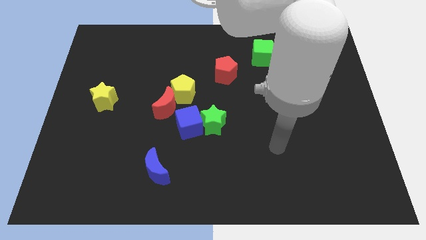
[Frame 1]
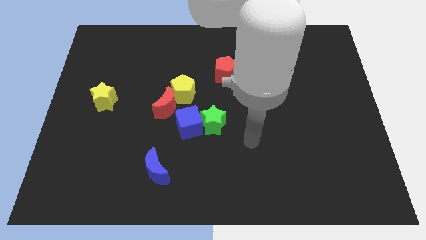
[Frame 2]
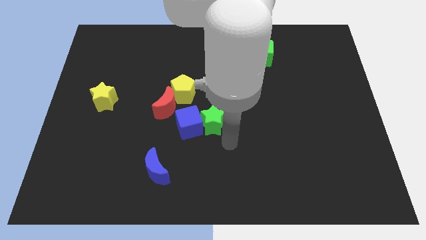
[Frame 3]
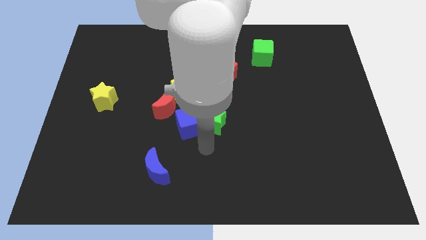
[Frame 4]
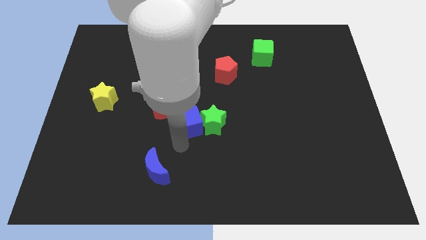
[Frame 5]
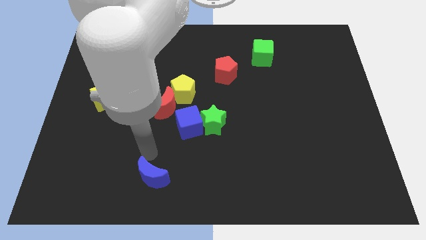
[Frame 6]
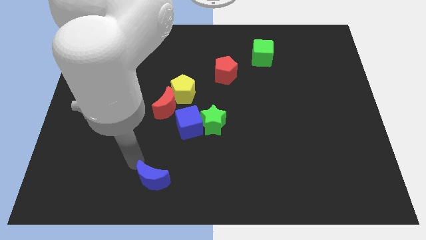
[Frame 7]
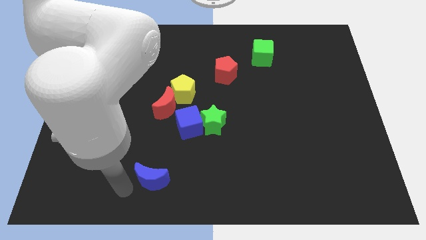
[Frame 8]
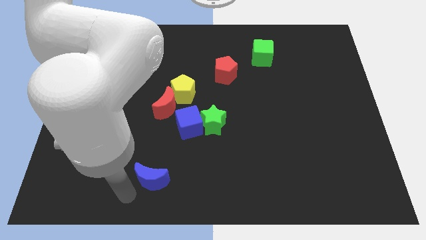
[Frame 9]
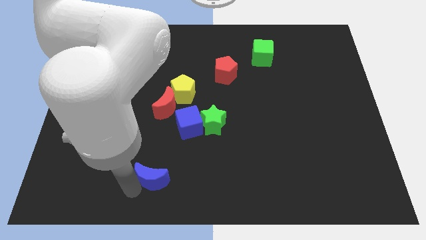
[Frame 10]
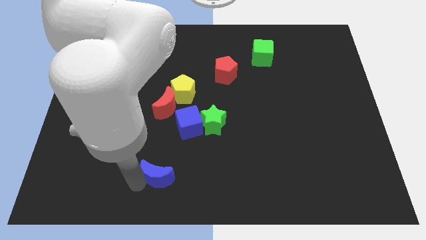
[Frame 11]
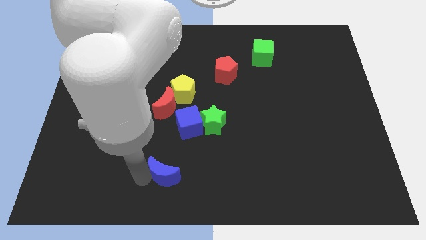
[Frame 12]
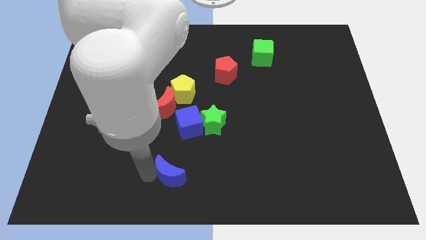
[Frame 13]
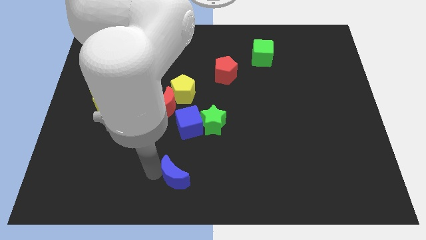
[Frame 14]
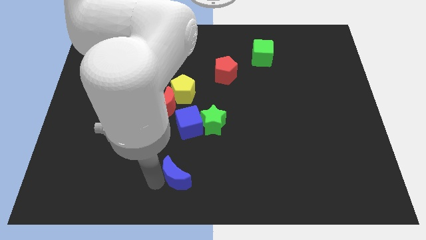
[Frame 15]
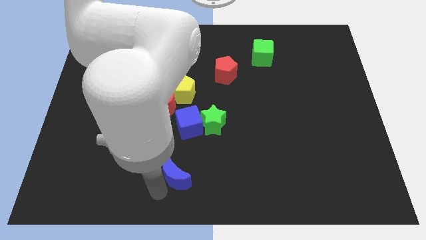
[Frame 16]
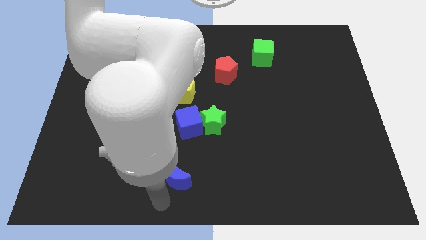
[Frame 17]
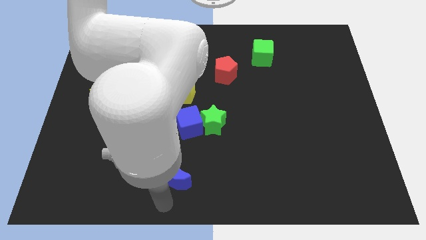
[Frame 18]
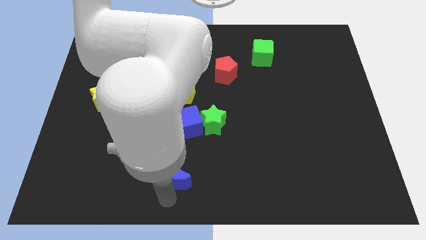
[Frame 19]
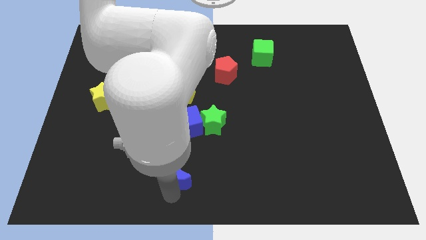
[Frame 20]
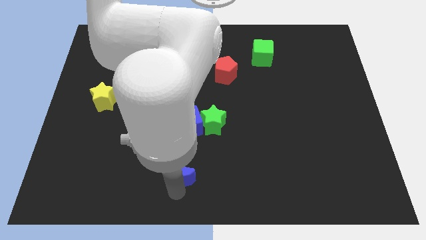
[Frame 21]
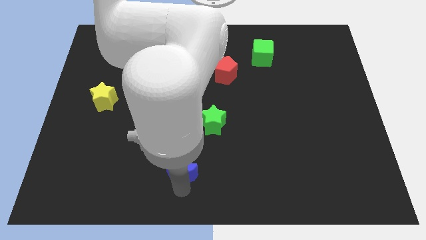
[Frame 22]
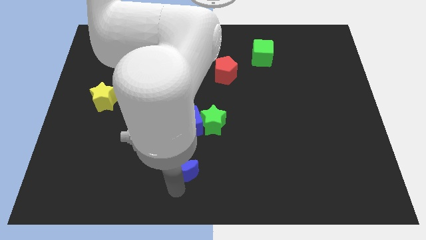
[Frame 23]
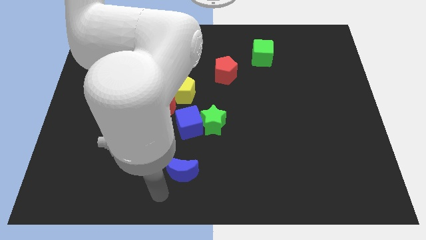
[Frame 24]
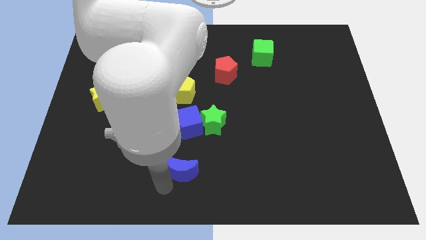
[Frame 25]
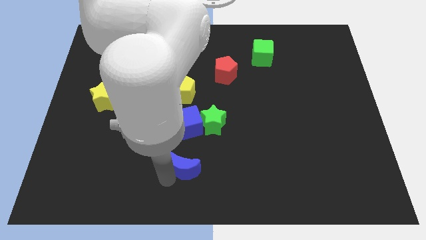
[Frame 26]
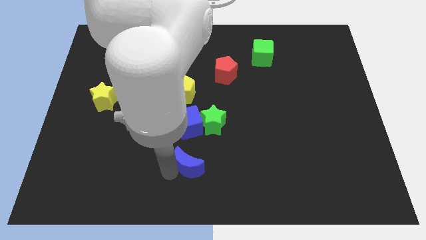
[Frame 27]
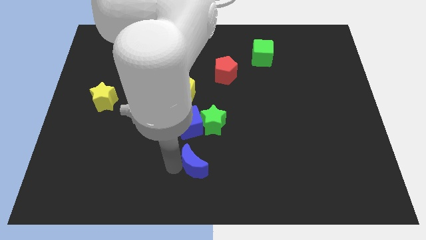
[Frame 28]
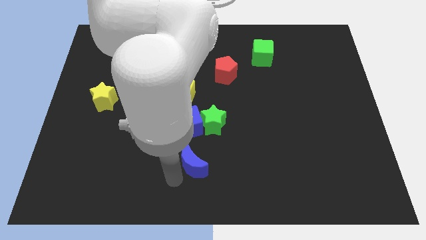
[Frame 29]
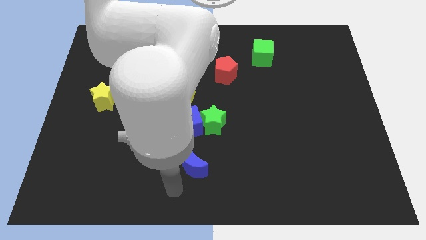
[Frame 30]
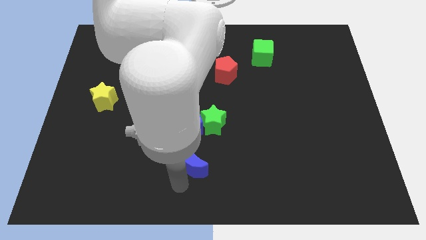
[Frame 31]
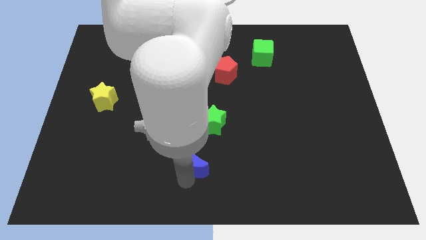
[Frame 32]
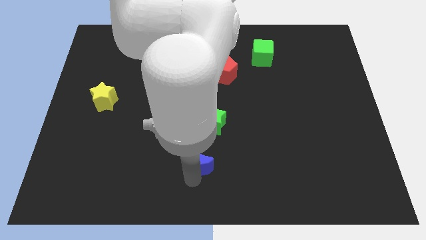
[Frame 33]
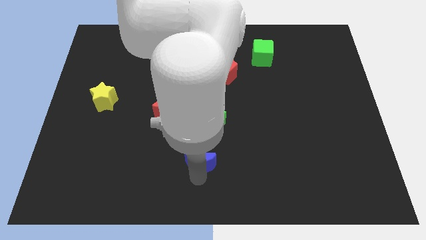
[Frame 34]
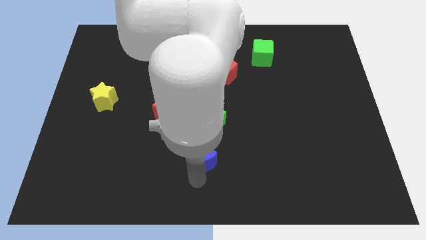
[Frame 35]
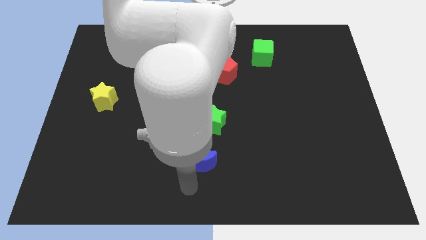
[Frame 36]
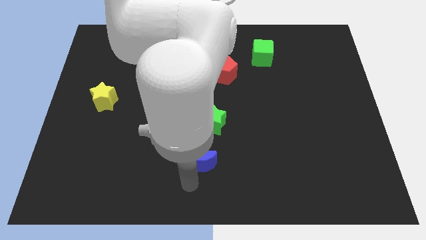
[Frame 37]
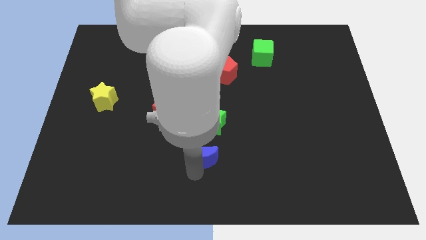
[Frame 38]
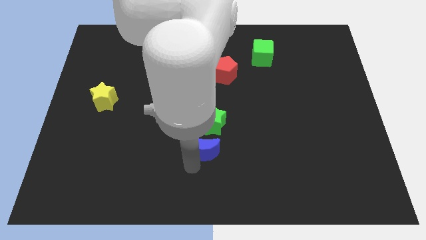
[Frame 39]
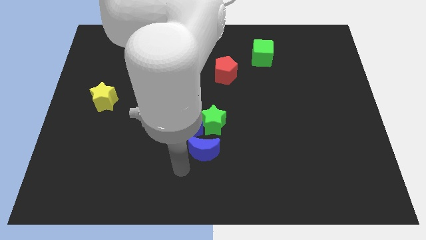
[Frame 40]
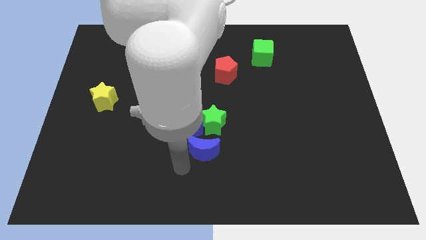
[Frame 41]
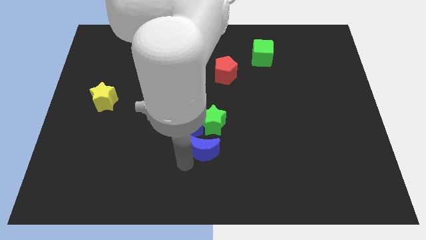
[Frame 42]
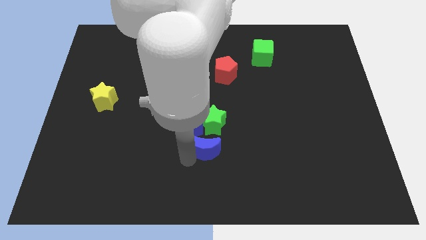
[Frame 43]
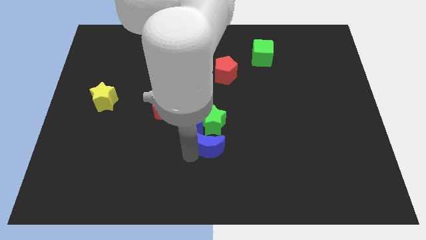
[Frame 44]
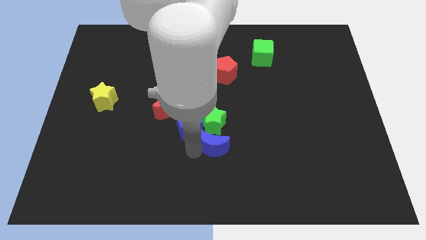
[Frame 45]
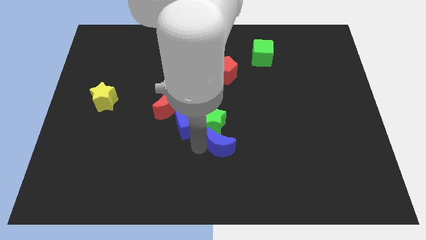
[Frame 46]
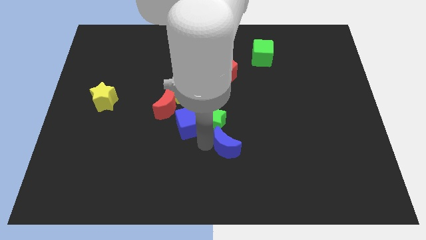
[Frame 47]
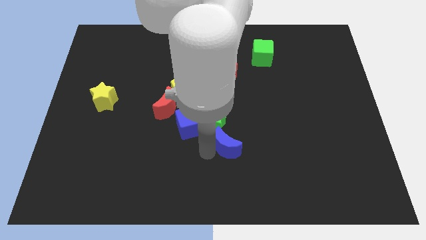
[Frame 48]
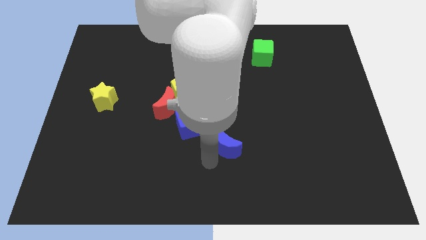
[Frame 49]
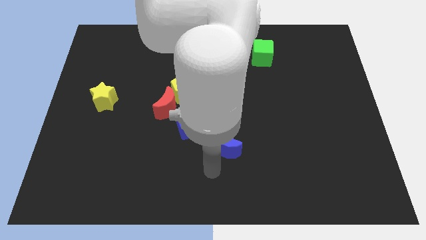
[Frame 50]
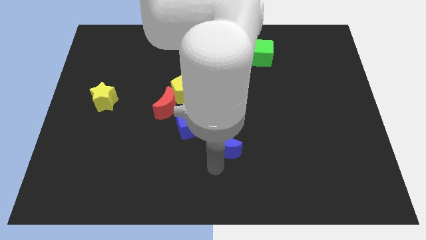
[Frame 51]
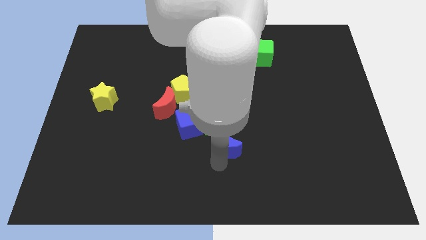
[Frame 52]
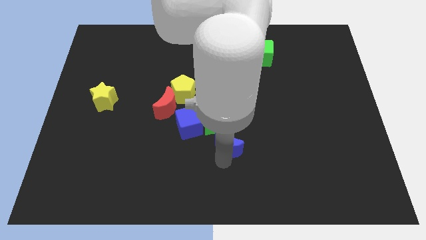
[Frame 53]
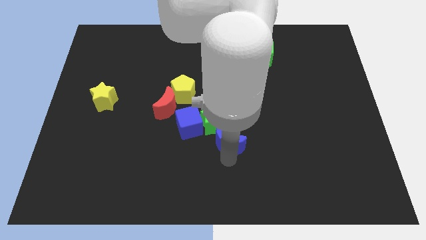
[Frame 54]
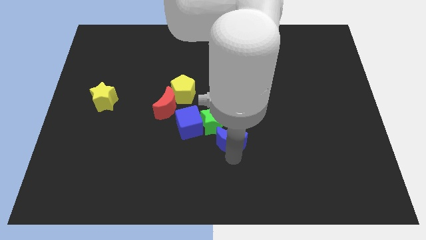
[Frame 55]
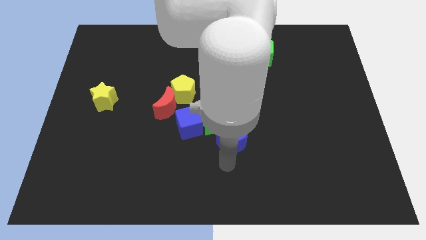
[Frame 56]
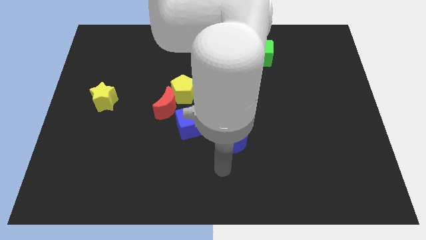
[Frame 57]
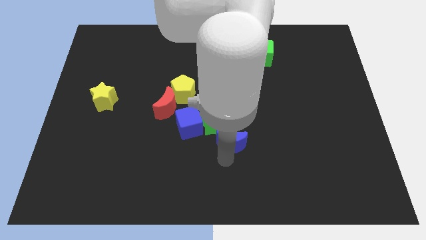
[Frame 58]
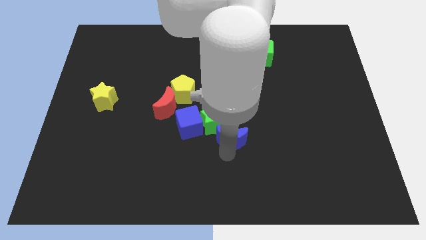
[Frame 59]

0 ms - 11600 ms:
move the blue moon right of the green star

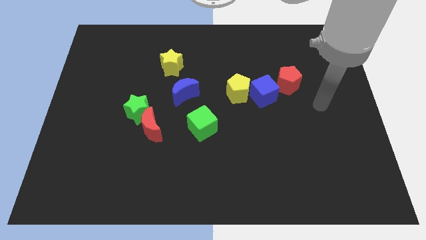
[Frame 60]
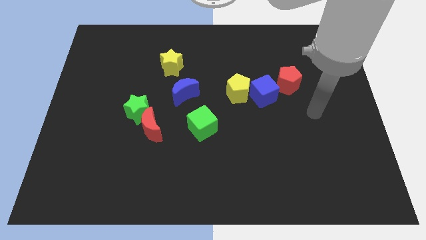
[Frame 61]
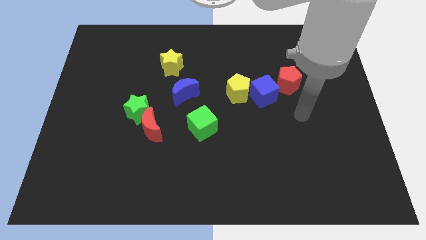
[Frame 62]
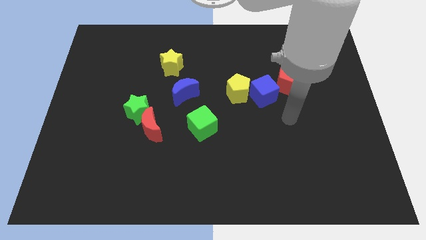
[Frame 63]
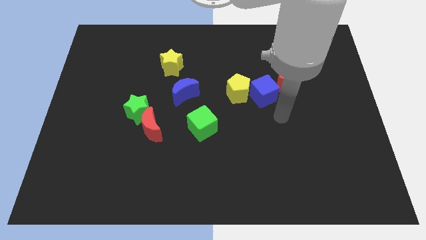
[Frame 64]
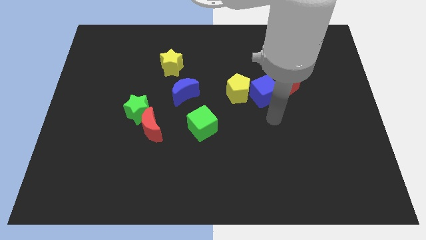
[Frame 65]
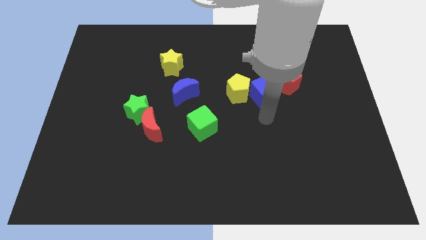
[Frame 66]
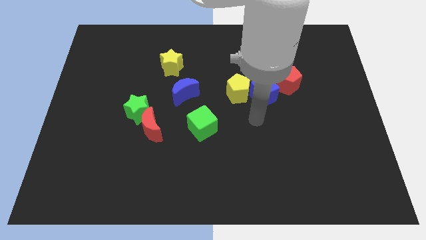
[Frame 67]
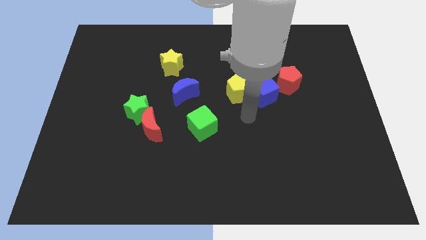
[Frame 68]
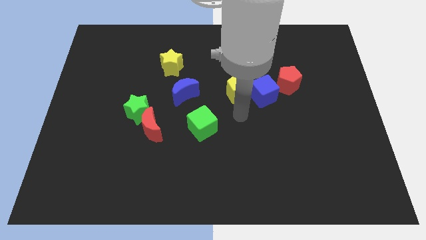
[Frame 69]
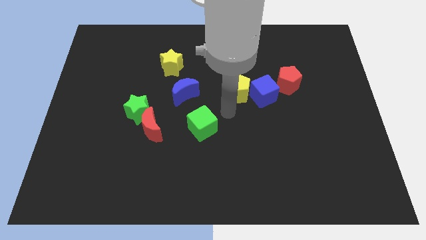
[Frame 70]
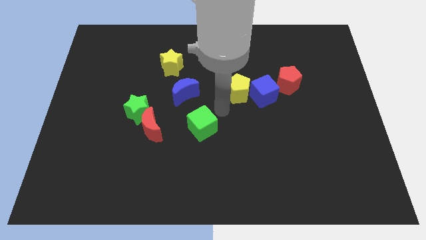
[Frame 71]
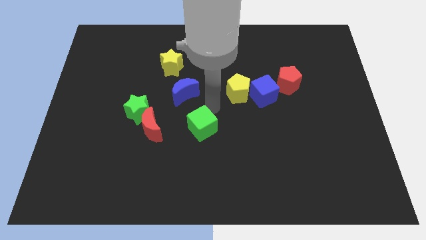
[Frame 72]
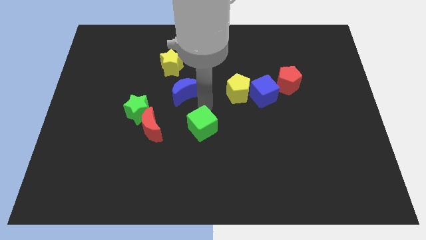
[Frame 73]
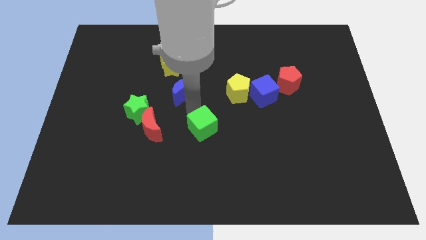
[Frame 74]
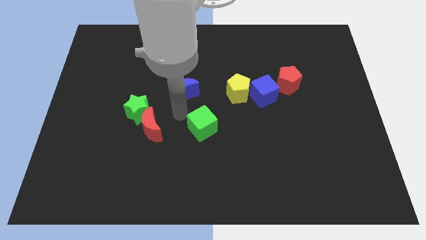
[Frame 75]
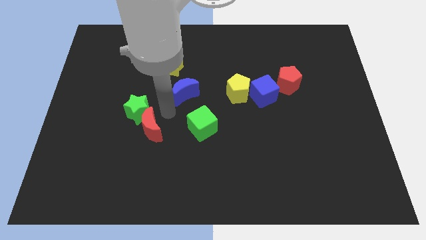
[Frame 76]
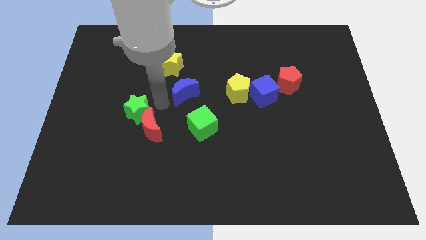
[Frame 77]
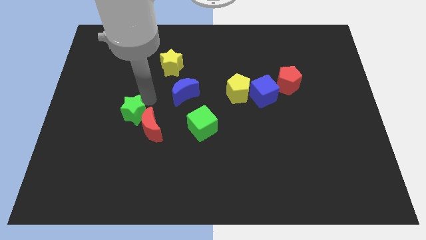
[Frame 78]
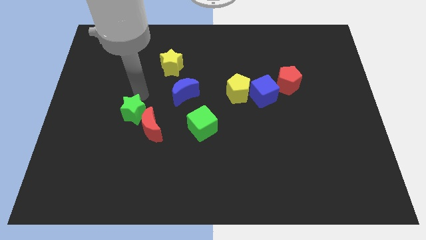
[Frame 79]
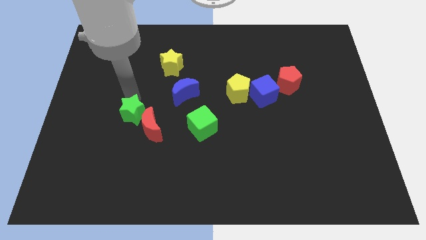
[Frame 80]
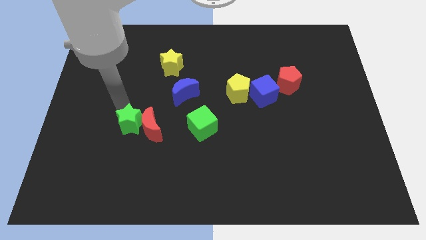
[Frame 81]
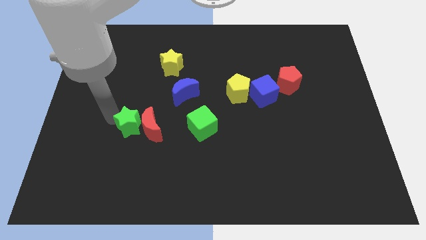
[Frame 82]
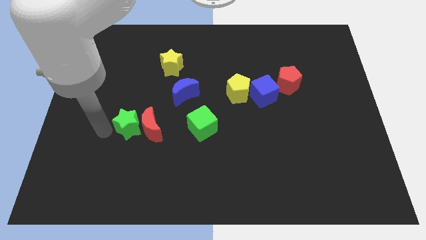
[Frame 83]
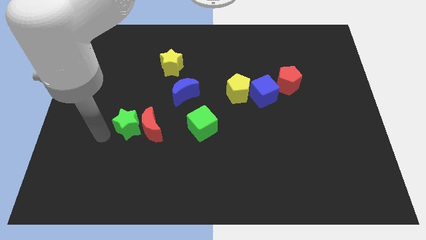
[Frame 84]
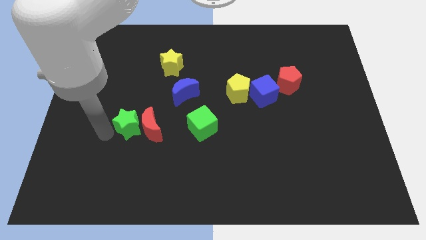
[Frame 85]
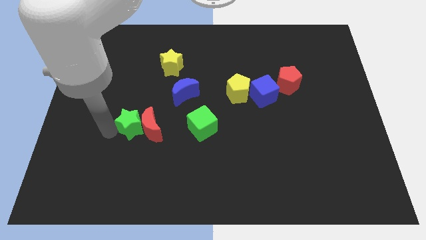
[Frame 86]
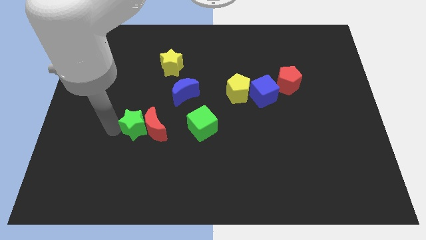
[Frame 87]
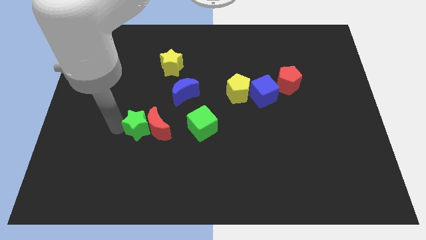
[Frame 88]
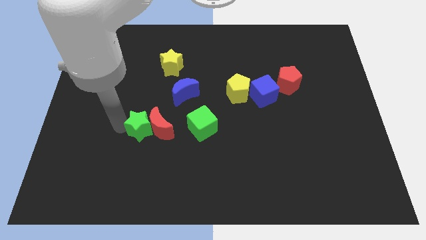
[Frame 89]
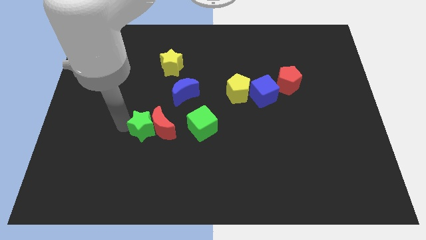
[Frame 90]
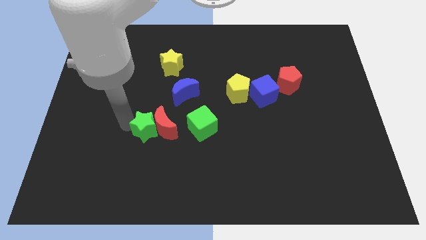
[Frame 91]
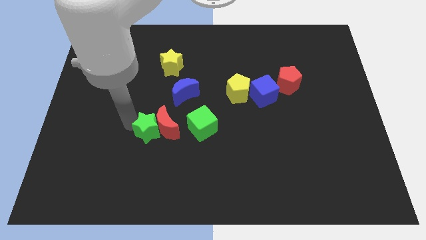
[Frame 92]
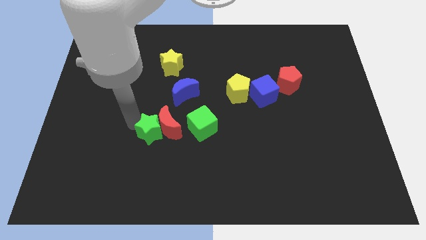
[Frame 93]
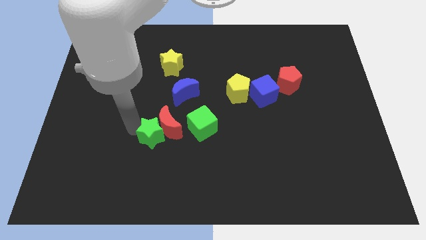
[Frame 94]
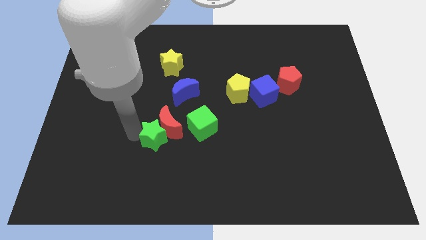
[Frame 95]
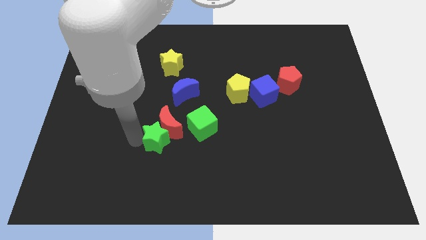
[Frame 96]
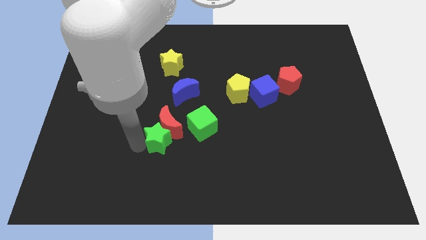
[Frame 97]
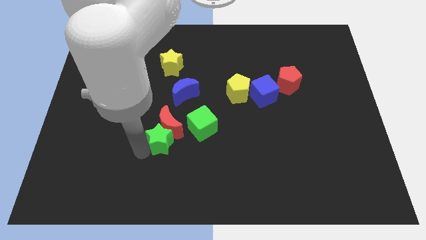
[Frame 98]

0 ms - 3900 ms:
move the green star to the bottom side of the blue moon
